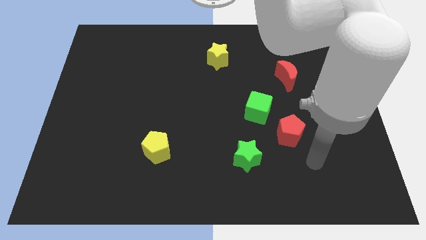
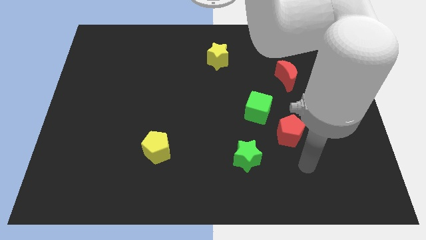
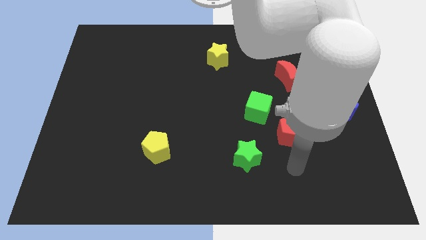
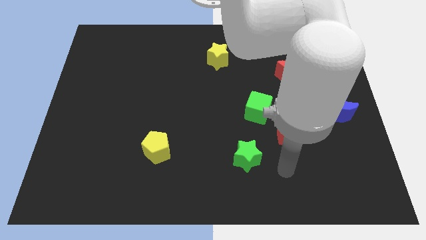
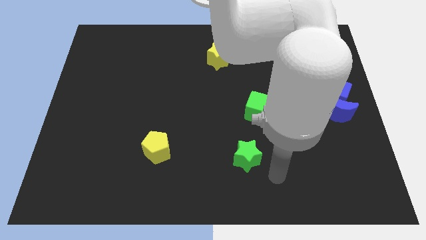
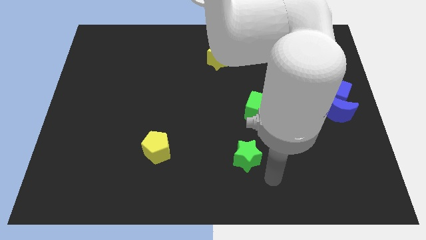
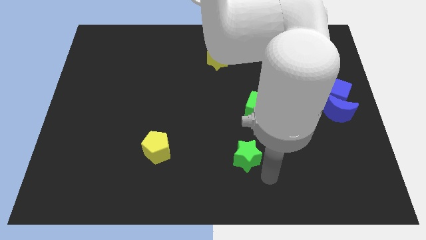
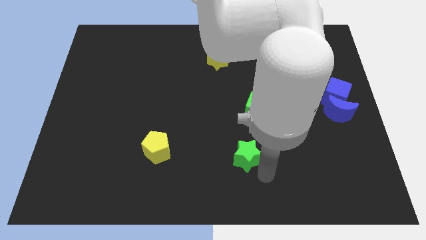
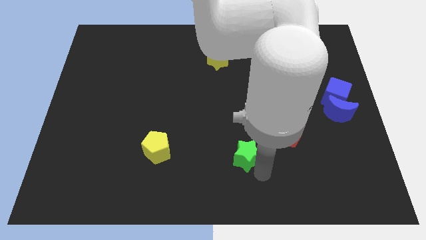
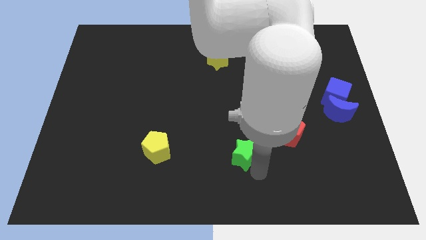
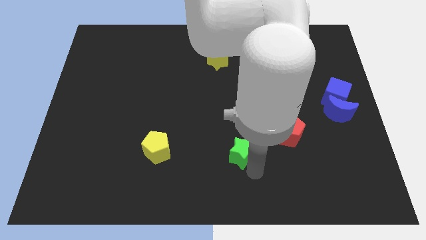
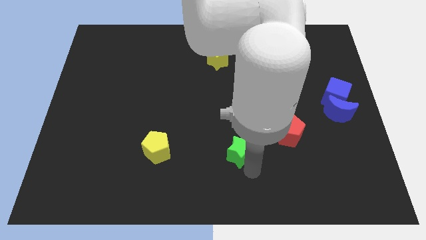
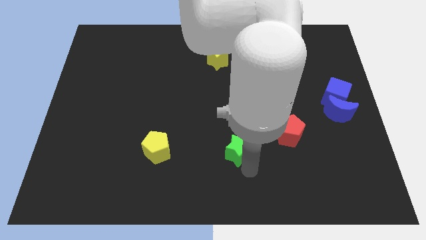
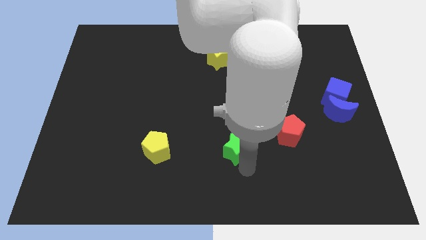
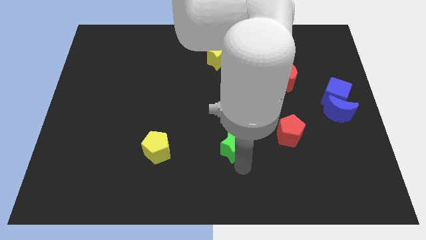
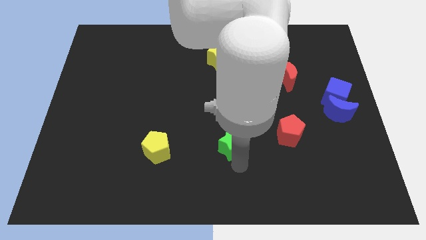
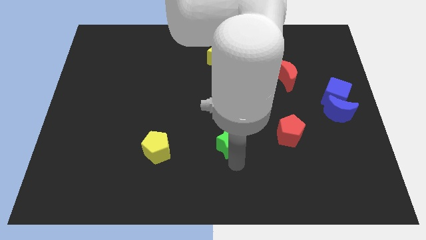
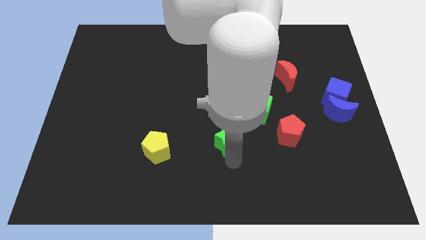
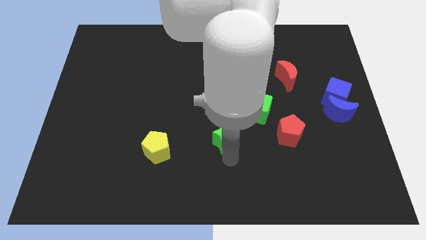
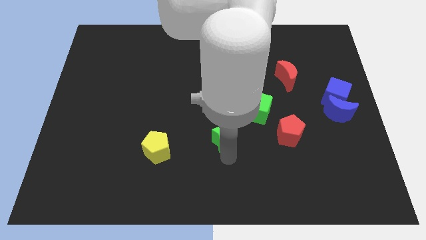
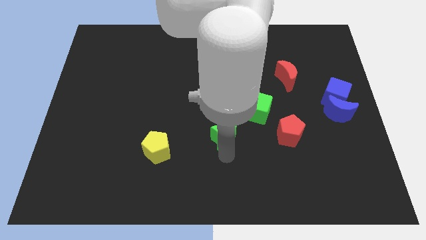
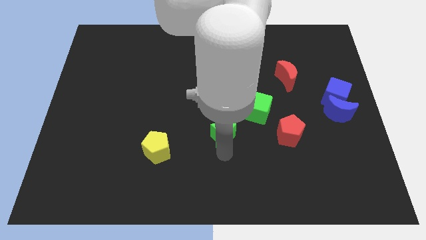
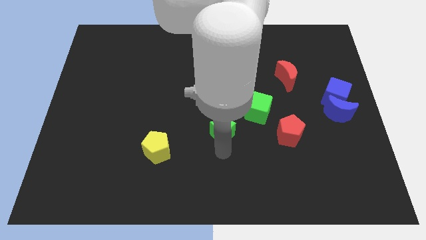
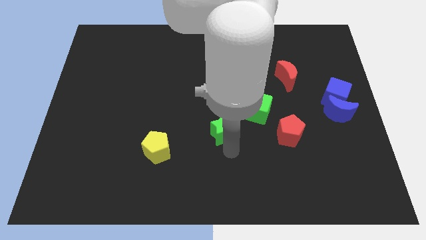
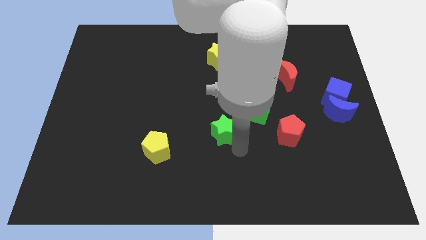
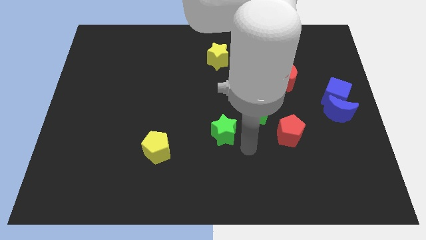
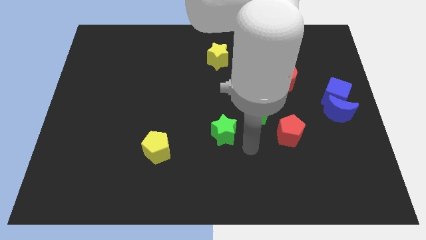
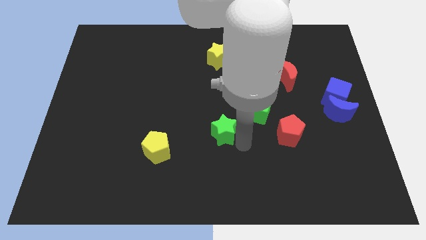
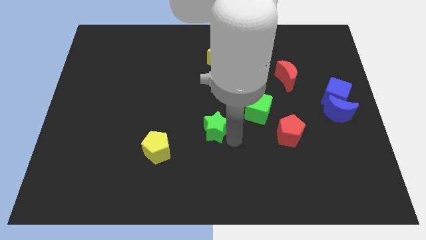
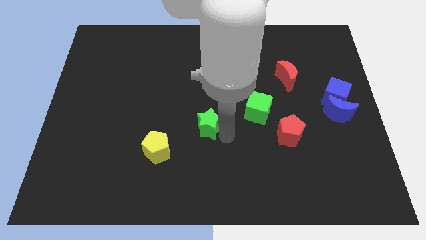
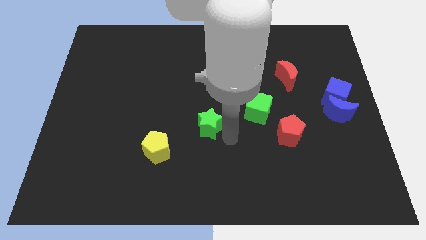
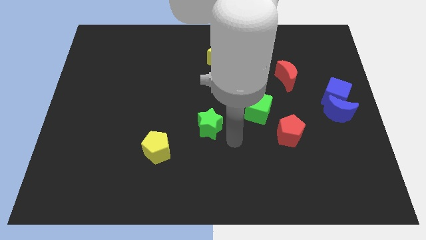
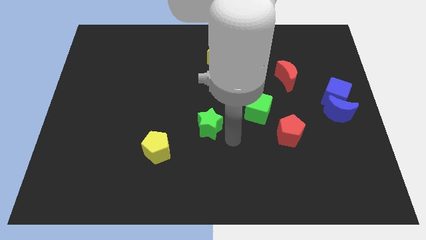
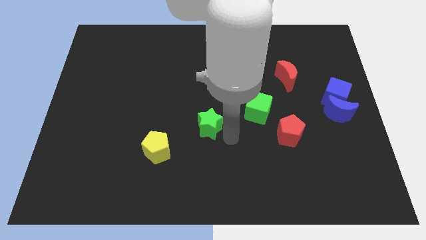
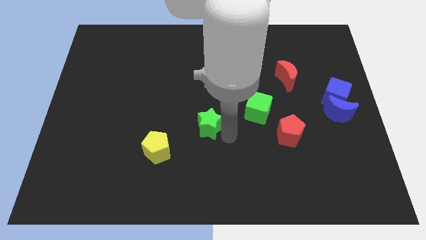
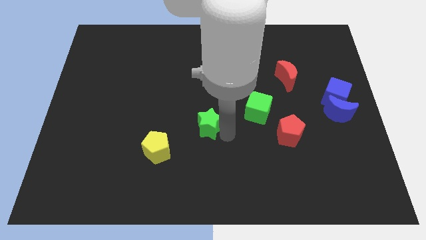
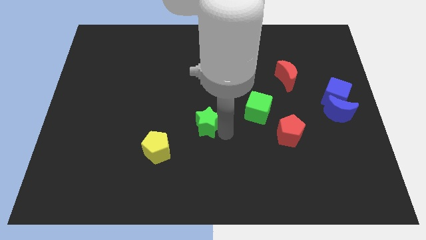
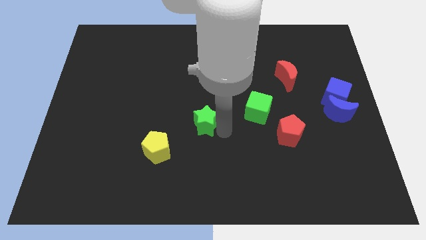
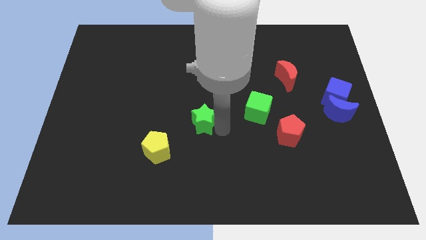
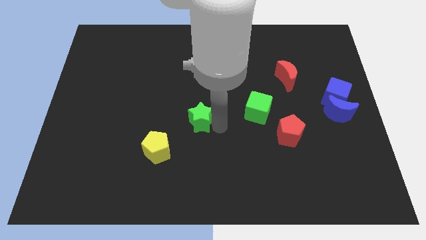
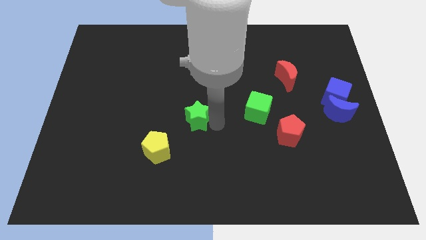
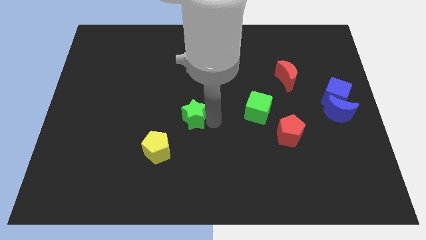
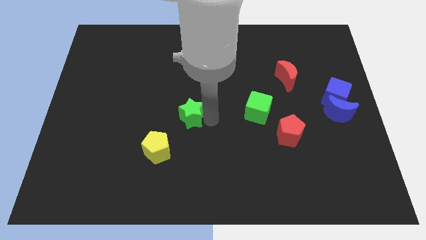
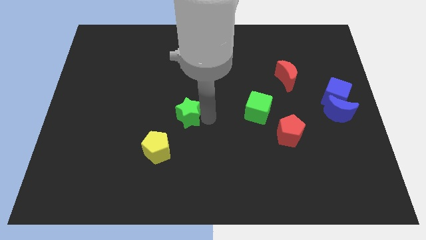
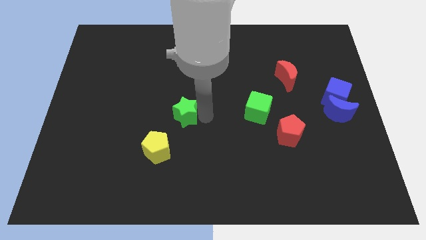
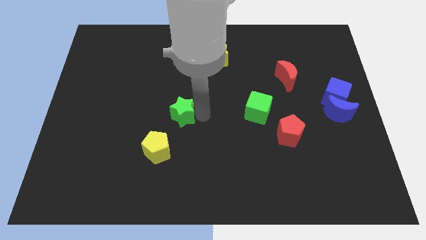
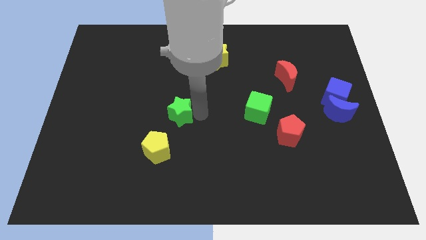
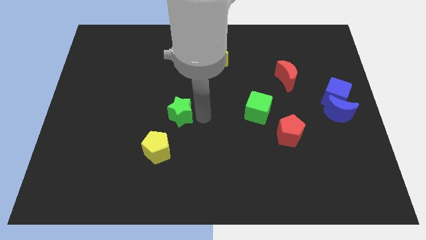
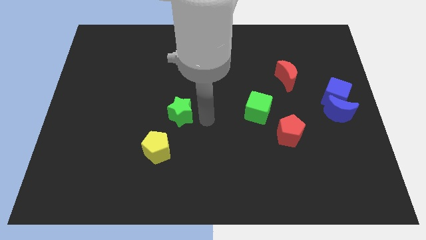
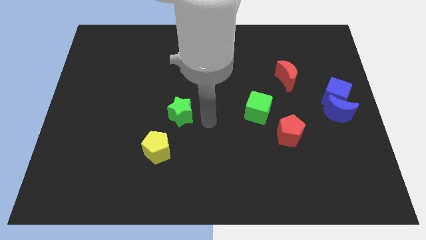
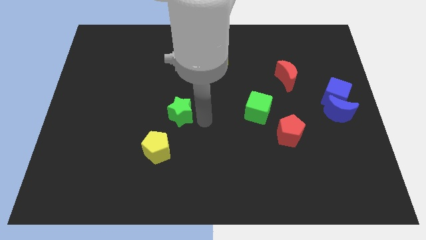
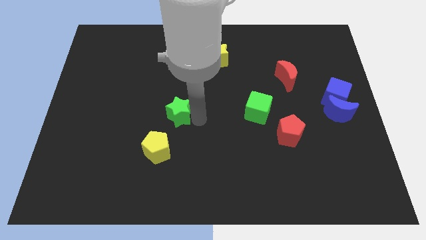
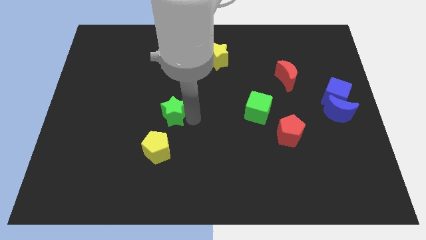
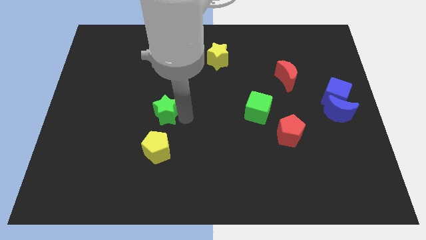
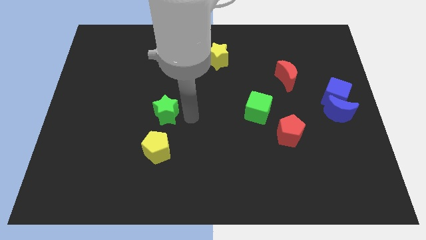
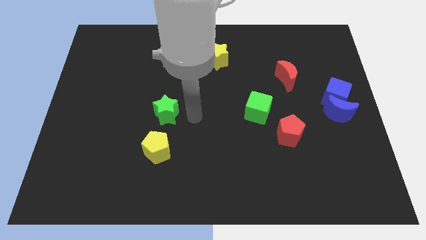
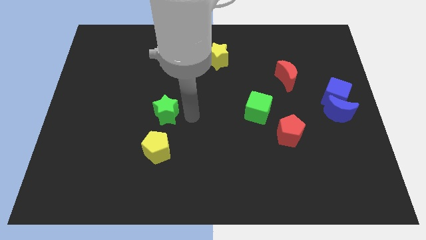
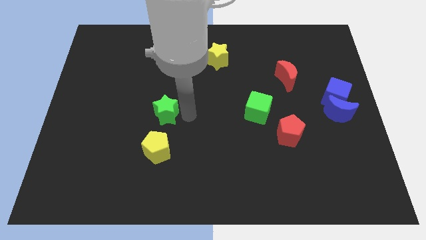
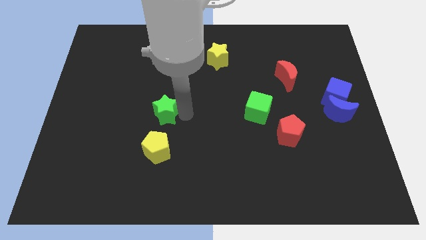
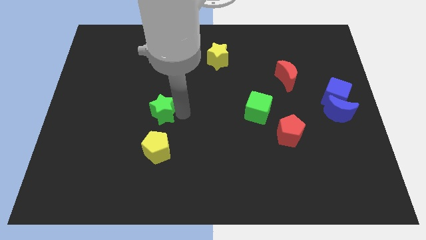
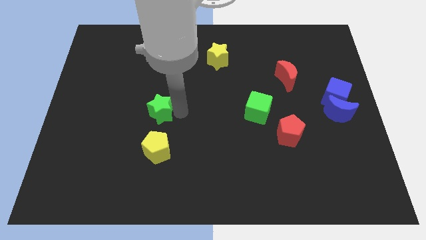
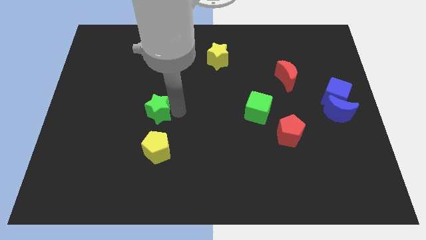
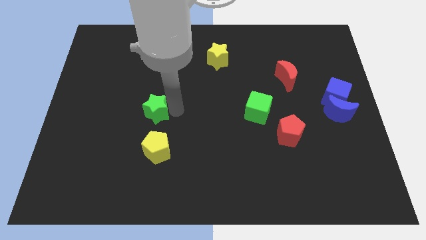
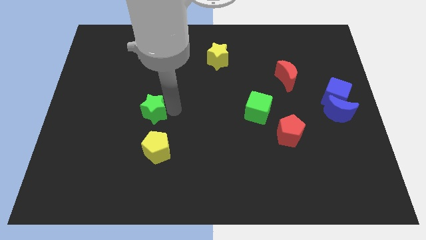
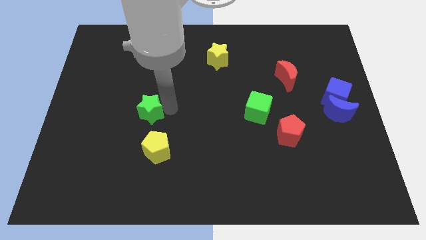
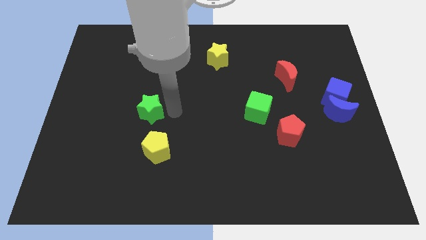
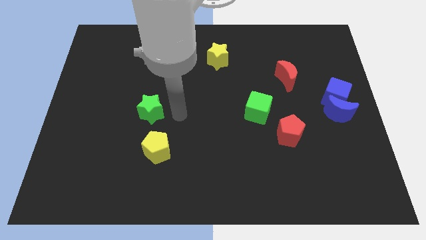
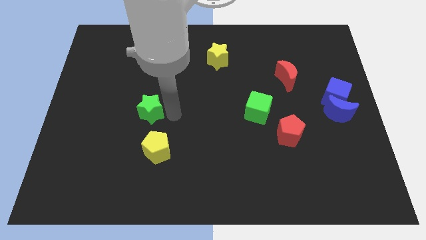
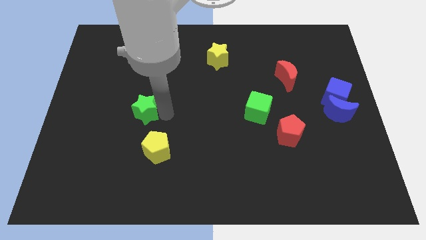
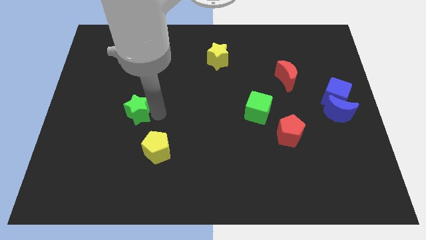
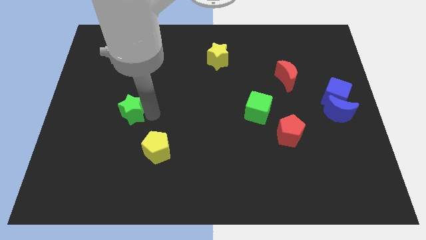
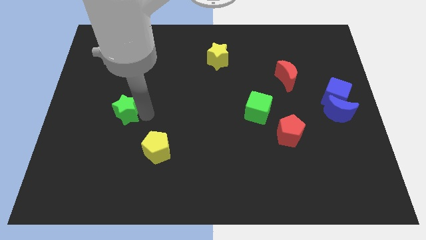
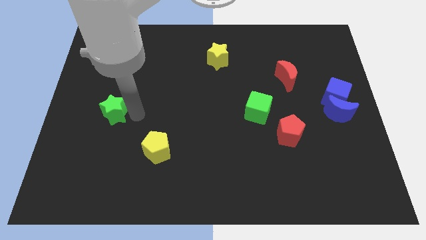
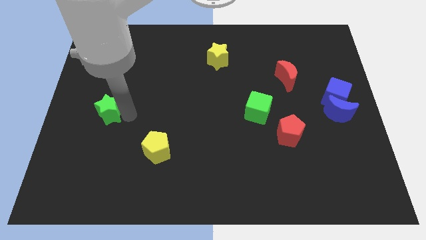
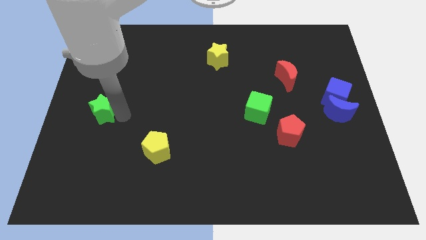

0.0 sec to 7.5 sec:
put the green star to the center left
